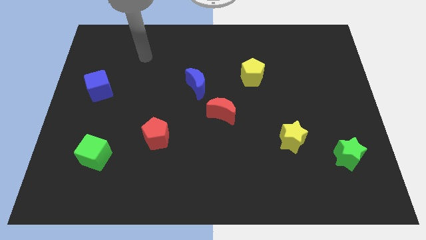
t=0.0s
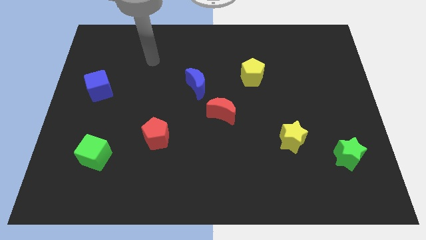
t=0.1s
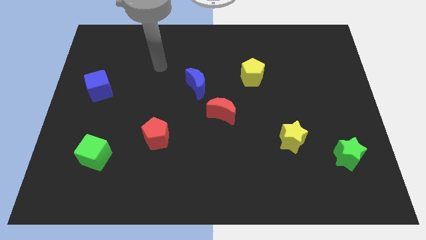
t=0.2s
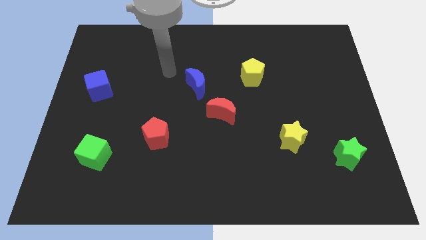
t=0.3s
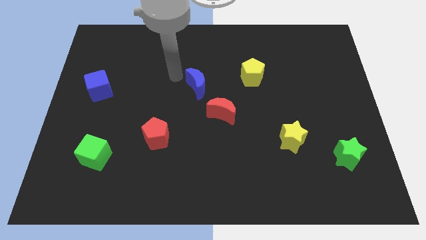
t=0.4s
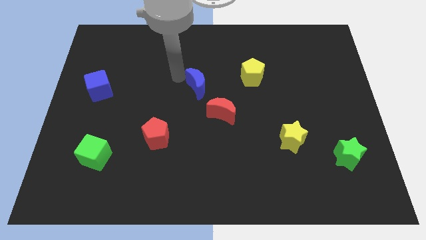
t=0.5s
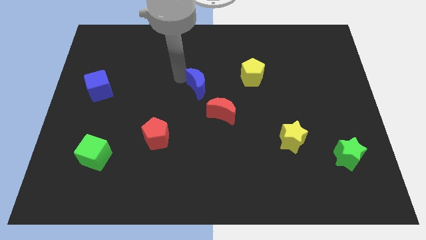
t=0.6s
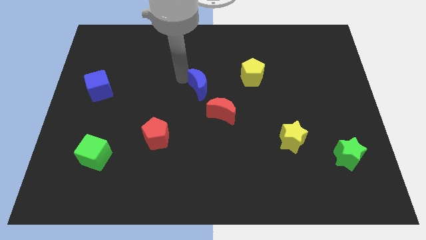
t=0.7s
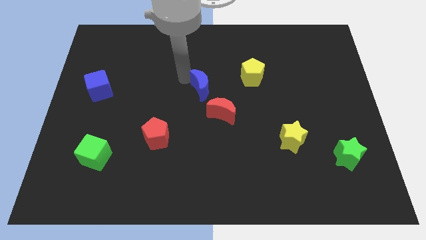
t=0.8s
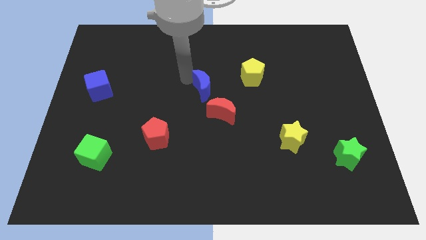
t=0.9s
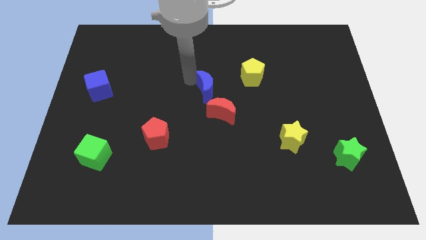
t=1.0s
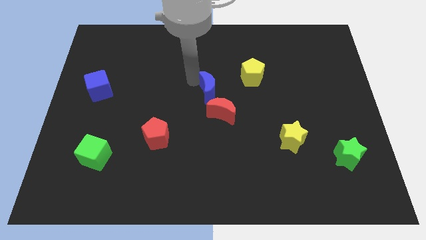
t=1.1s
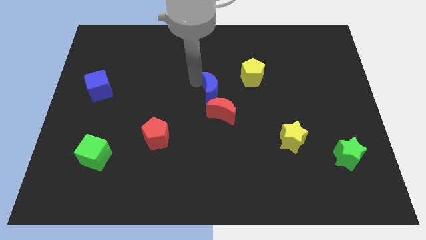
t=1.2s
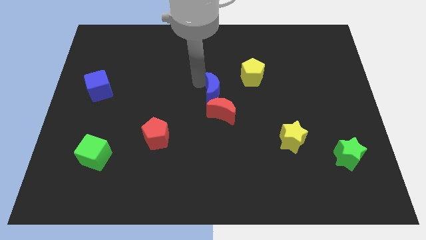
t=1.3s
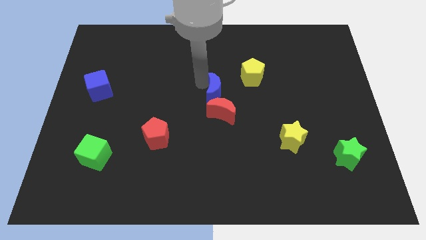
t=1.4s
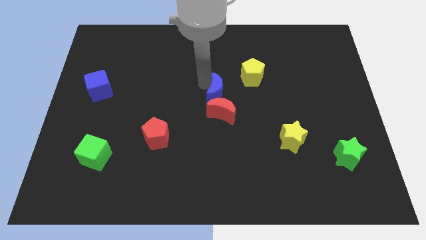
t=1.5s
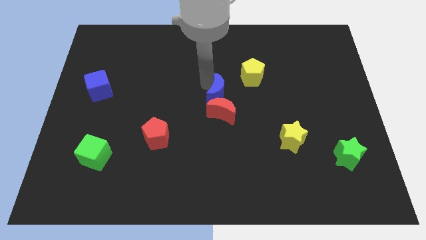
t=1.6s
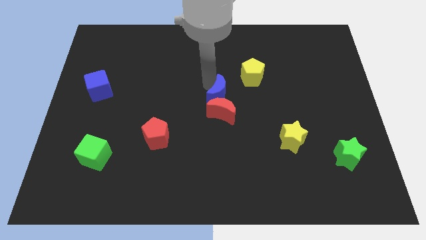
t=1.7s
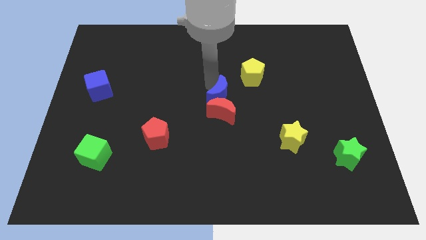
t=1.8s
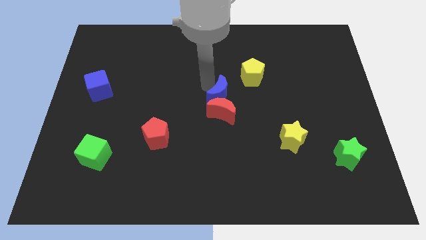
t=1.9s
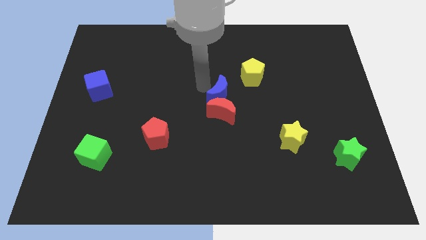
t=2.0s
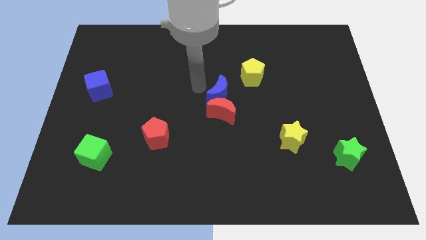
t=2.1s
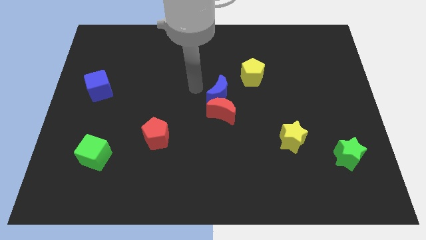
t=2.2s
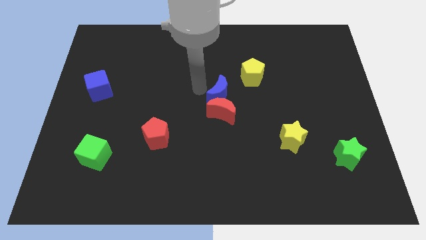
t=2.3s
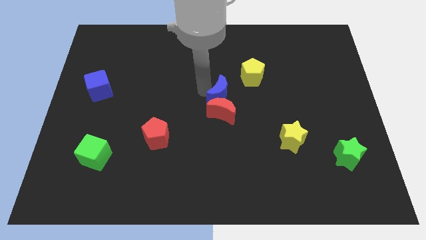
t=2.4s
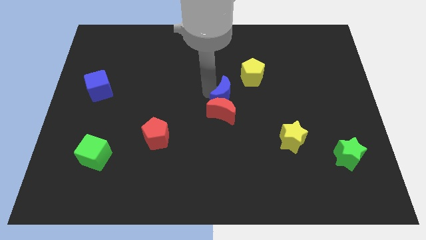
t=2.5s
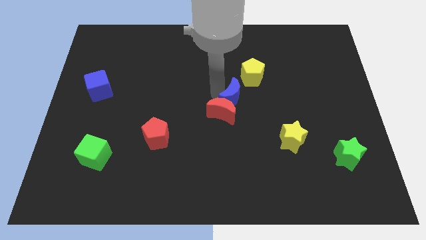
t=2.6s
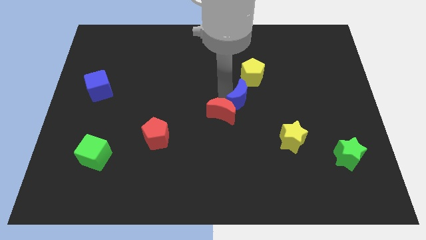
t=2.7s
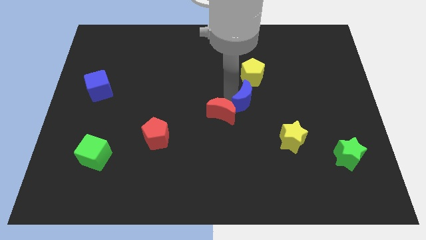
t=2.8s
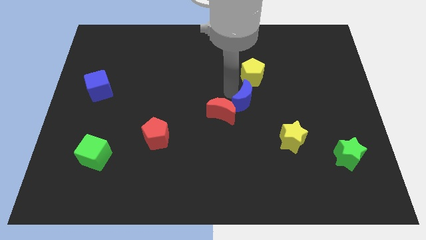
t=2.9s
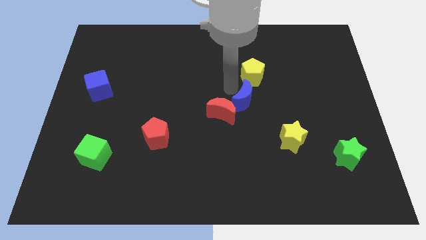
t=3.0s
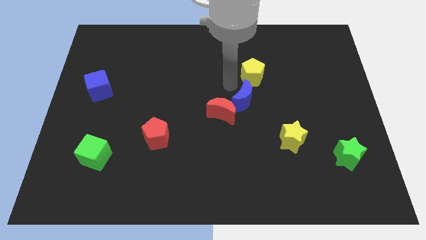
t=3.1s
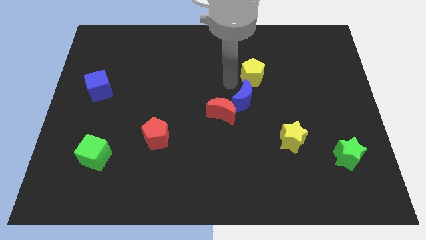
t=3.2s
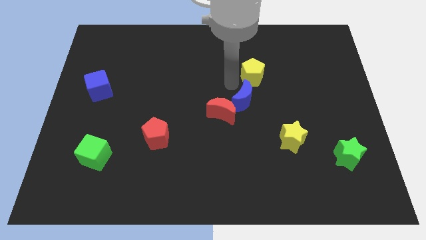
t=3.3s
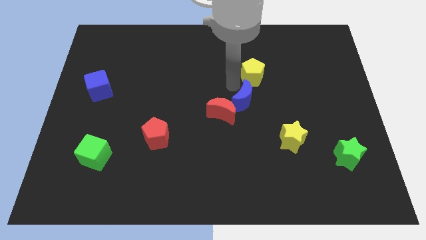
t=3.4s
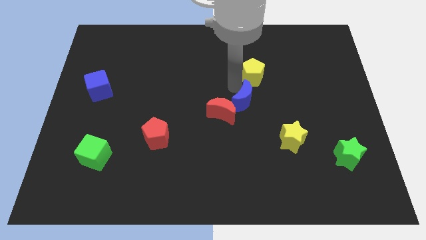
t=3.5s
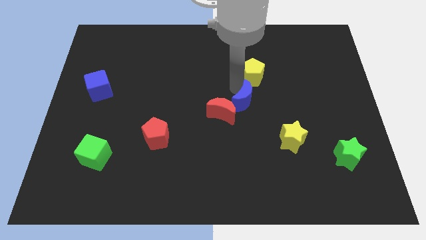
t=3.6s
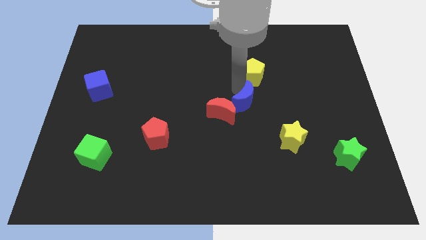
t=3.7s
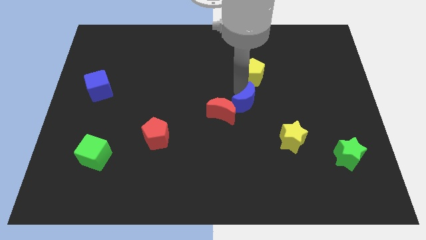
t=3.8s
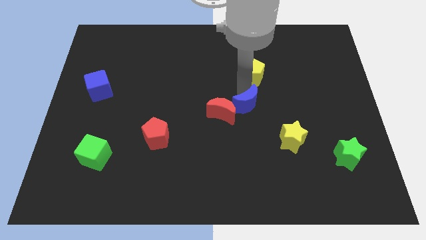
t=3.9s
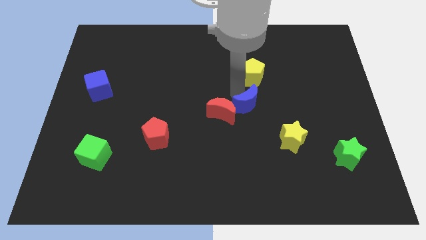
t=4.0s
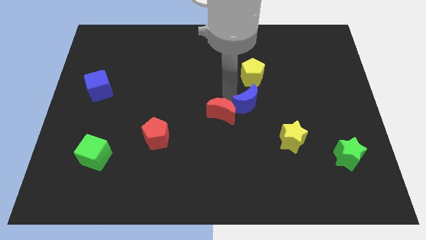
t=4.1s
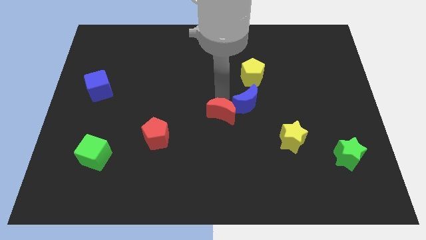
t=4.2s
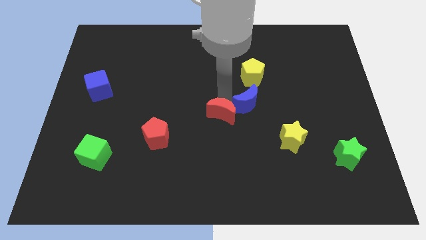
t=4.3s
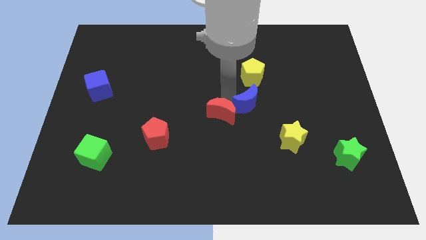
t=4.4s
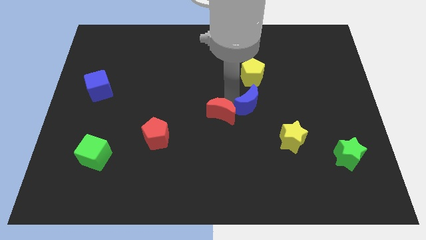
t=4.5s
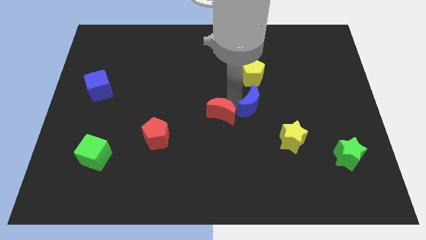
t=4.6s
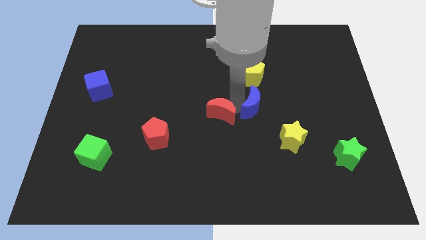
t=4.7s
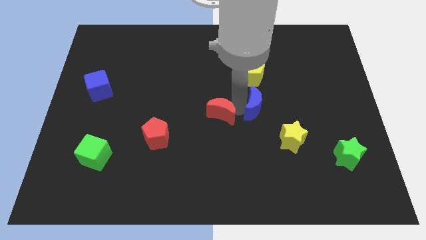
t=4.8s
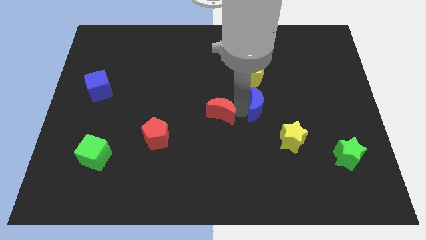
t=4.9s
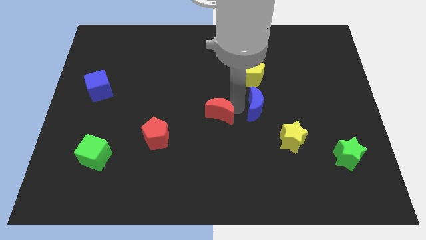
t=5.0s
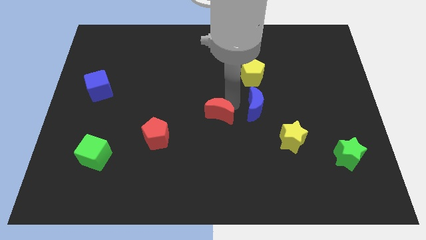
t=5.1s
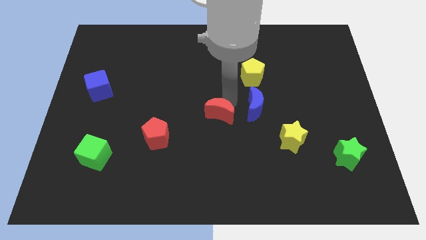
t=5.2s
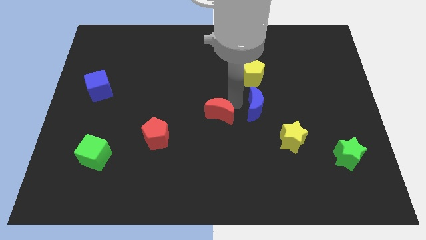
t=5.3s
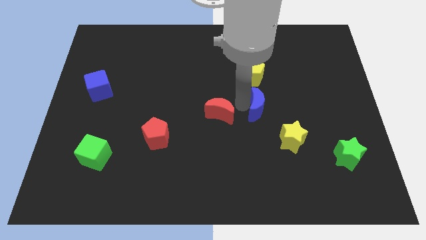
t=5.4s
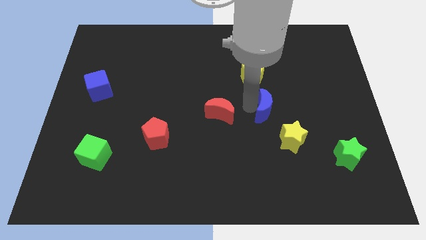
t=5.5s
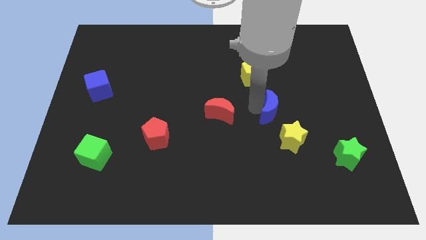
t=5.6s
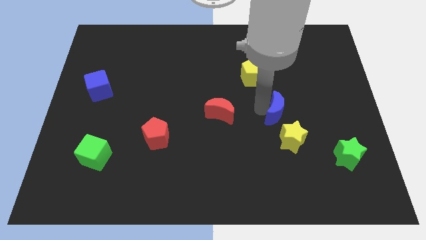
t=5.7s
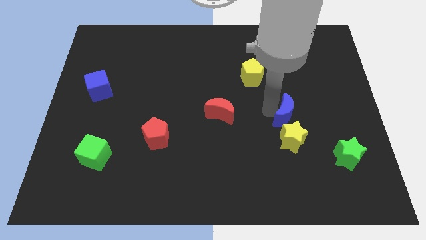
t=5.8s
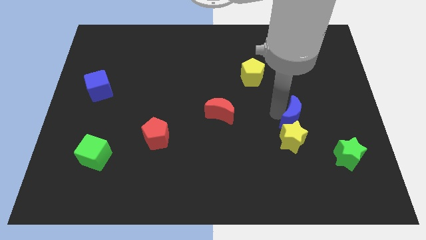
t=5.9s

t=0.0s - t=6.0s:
push the blue moon to the top right of the yellow star
